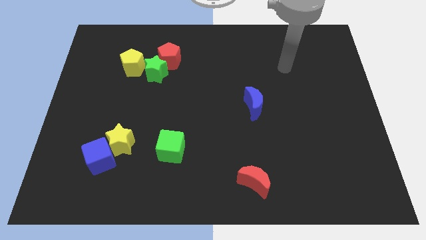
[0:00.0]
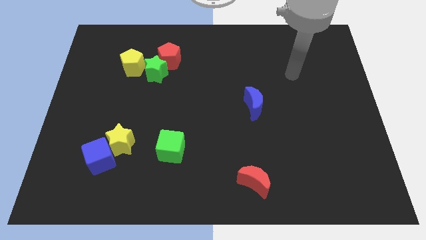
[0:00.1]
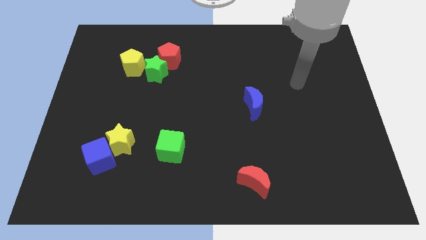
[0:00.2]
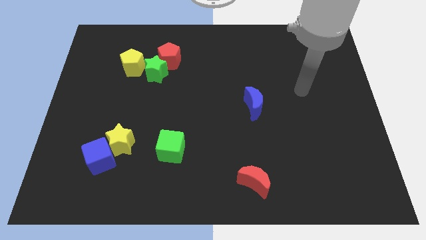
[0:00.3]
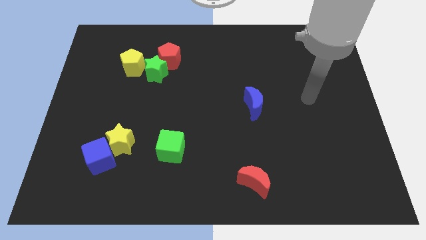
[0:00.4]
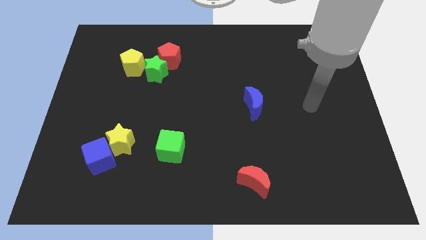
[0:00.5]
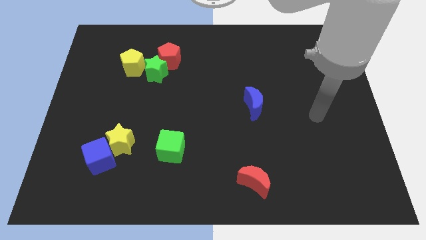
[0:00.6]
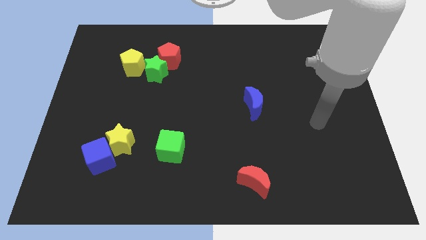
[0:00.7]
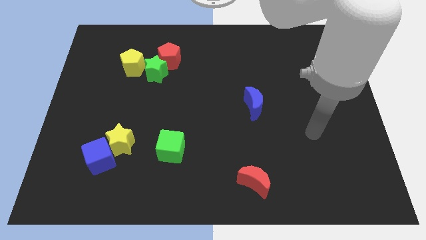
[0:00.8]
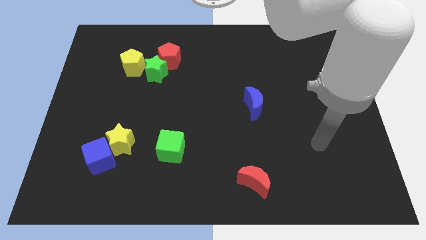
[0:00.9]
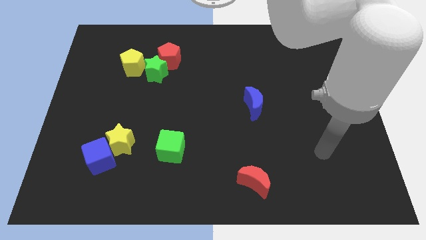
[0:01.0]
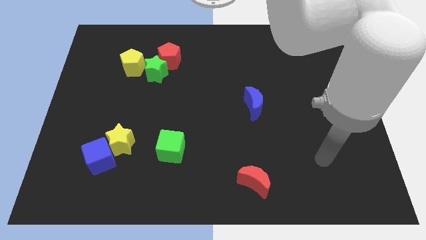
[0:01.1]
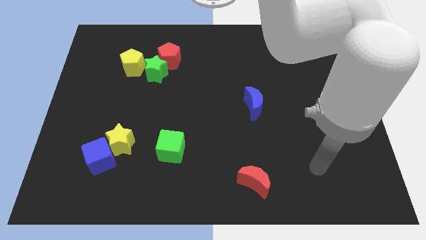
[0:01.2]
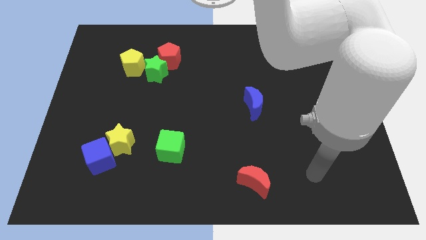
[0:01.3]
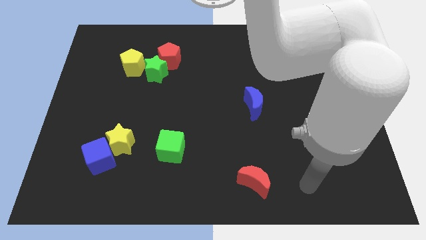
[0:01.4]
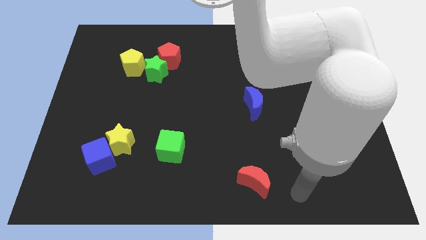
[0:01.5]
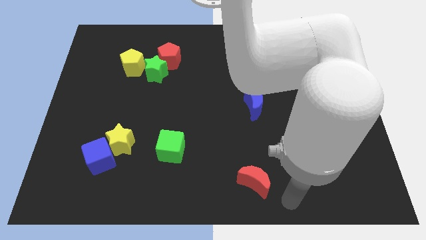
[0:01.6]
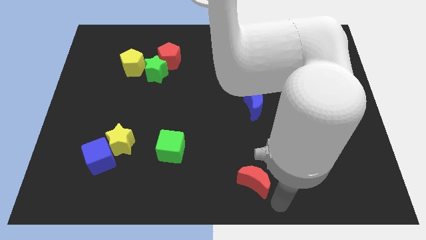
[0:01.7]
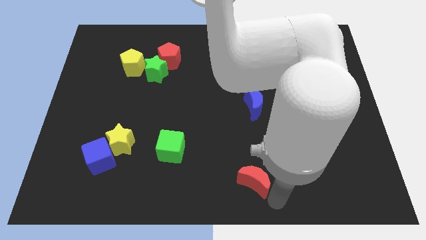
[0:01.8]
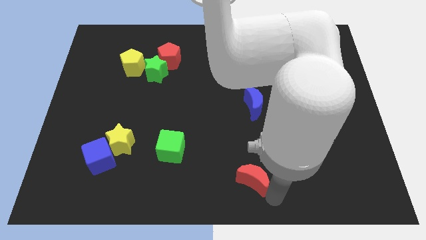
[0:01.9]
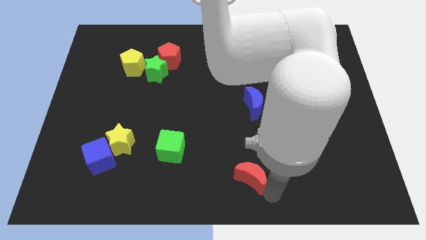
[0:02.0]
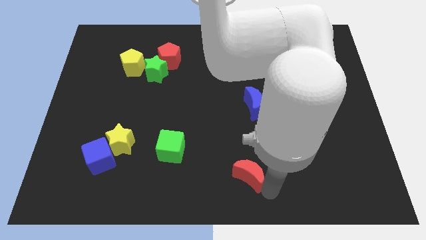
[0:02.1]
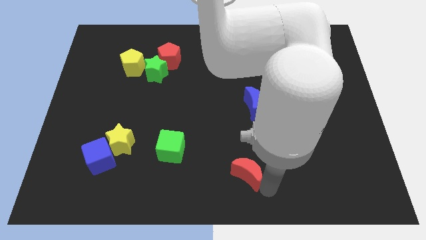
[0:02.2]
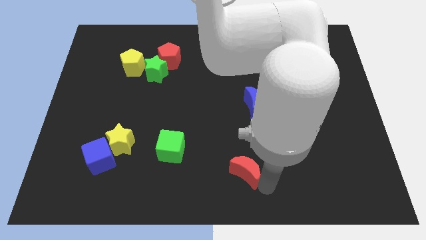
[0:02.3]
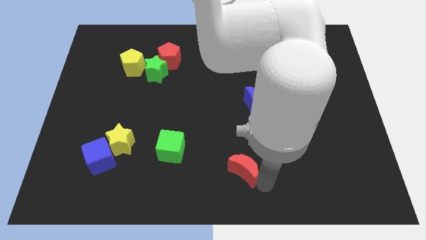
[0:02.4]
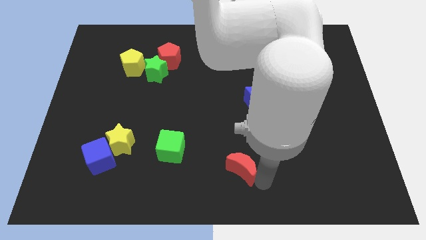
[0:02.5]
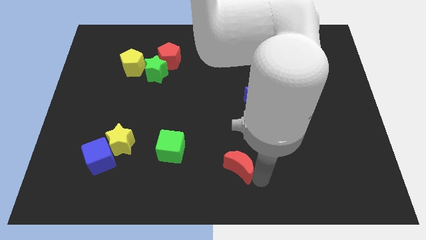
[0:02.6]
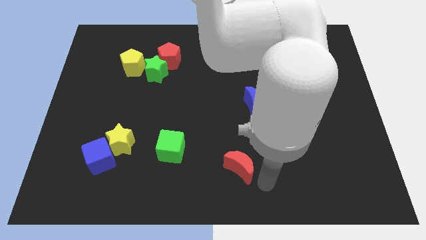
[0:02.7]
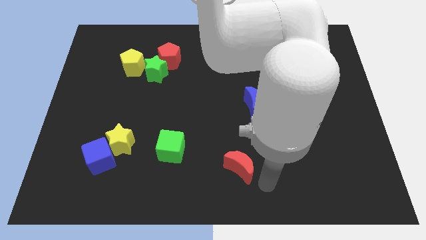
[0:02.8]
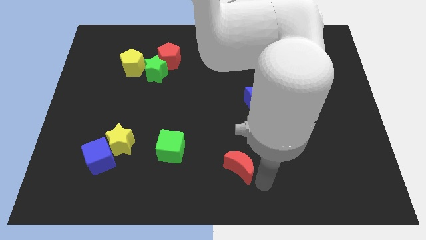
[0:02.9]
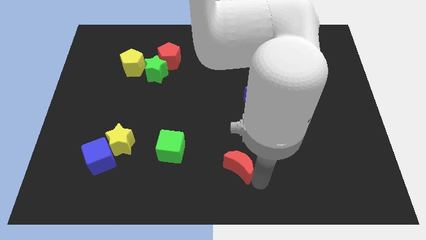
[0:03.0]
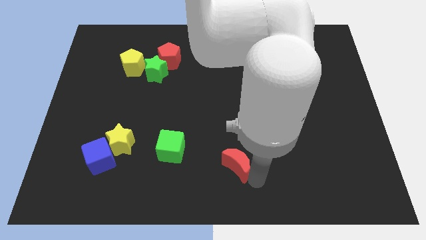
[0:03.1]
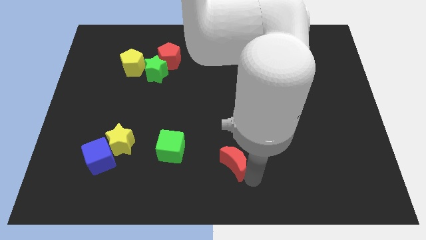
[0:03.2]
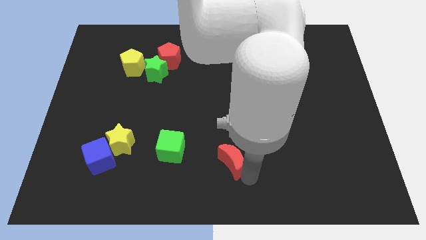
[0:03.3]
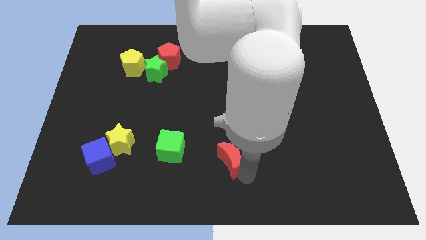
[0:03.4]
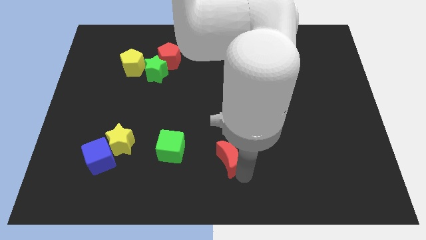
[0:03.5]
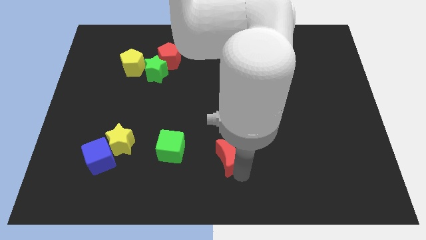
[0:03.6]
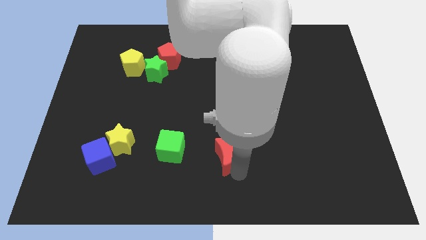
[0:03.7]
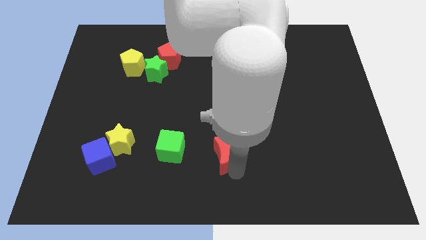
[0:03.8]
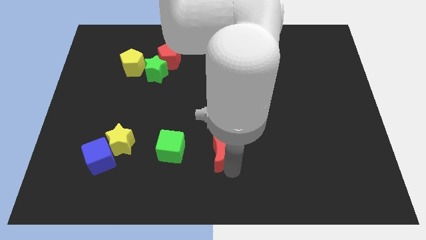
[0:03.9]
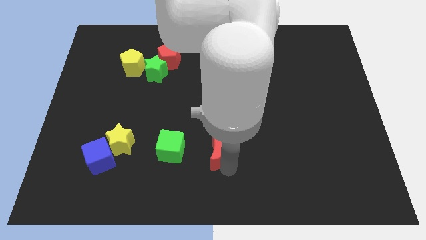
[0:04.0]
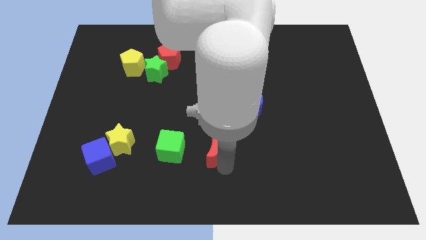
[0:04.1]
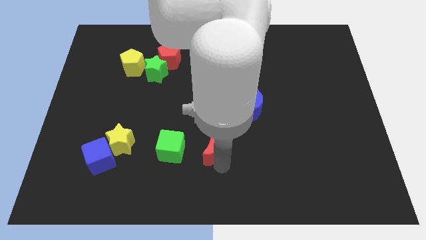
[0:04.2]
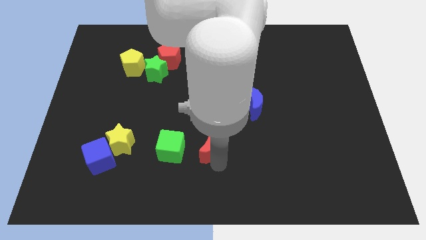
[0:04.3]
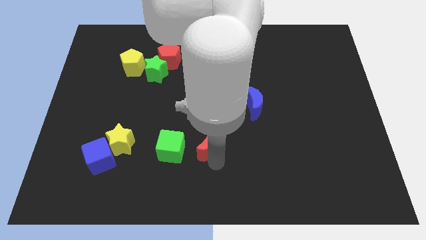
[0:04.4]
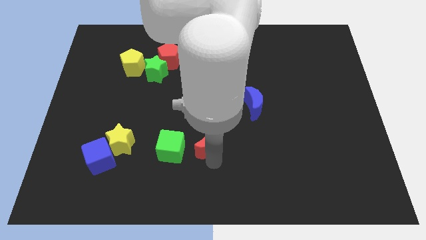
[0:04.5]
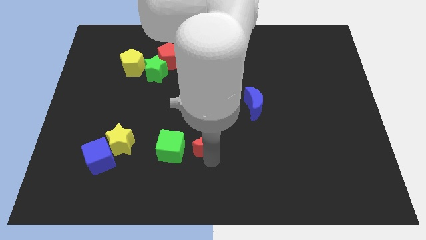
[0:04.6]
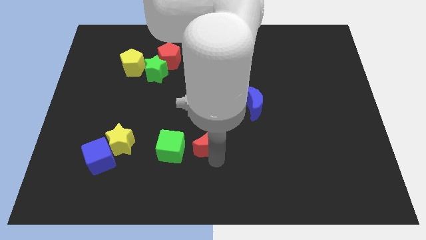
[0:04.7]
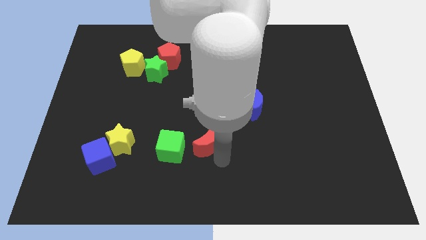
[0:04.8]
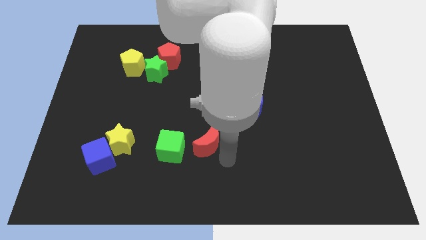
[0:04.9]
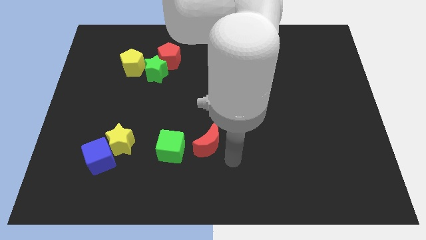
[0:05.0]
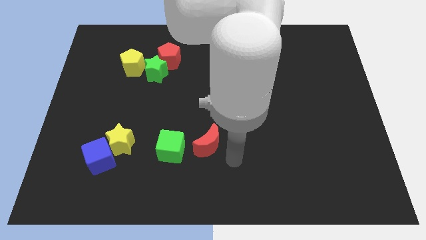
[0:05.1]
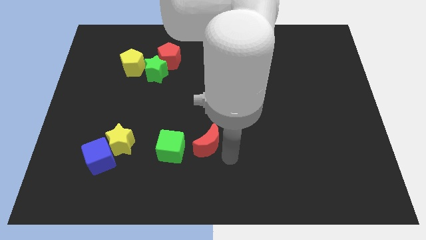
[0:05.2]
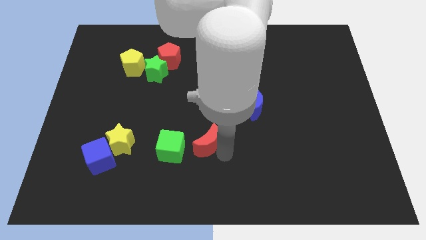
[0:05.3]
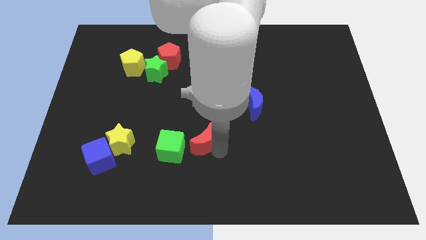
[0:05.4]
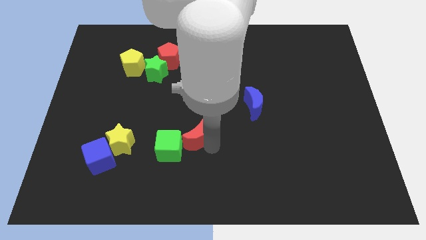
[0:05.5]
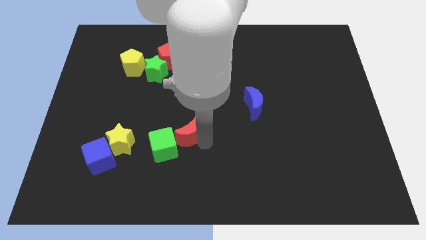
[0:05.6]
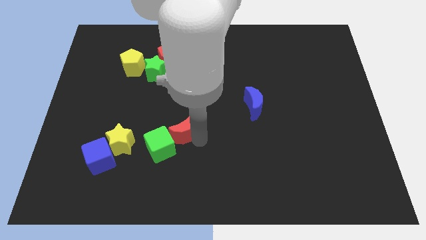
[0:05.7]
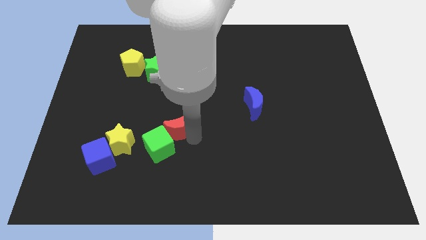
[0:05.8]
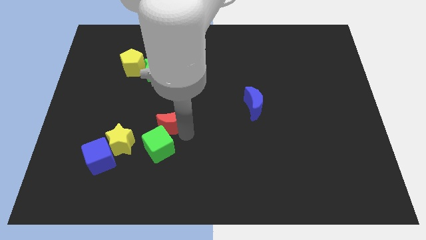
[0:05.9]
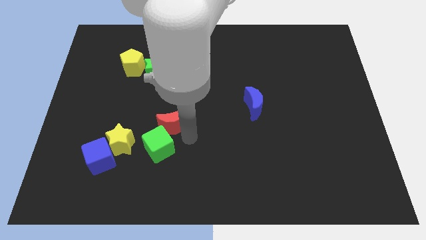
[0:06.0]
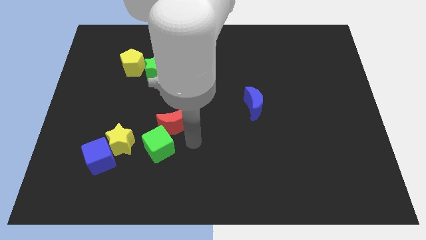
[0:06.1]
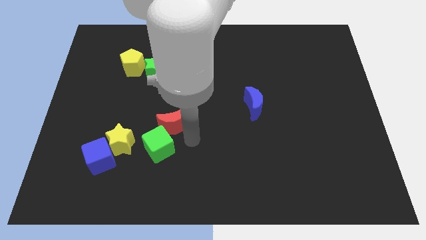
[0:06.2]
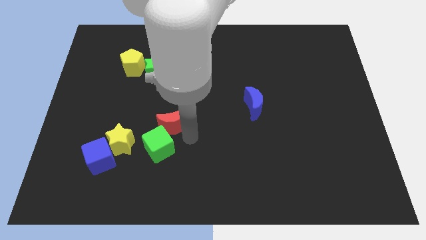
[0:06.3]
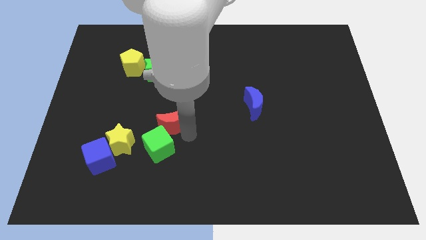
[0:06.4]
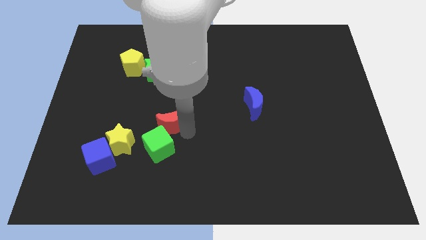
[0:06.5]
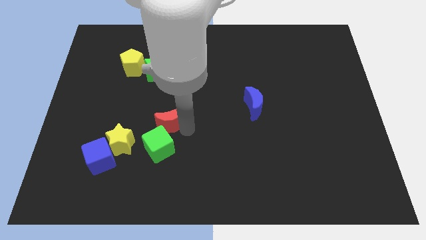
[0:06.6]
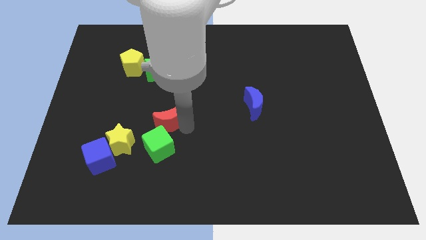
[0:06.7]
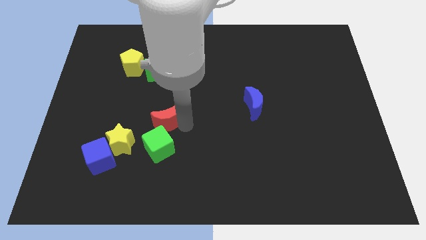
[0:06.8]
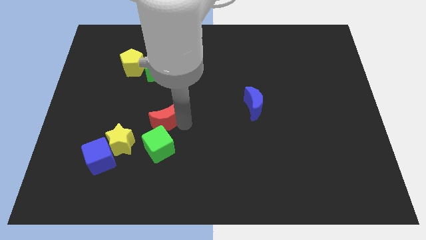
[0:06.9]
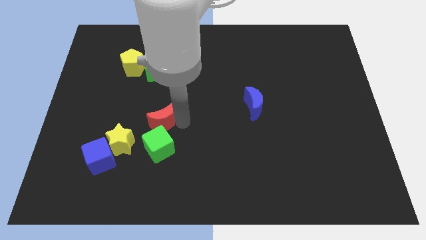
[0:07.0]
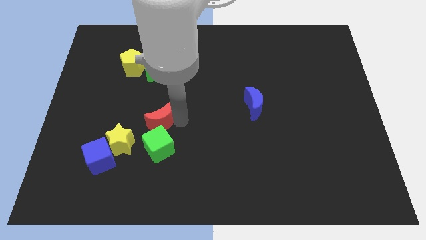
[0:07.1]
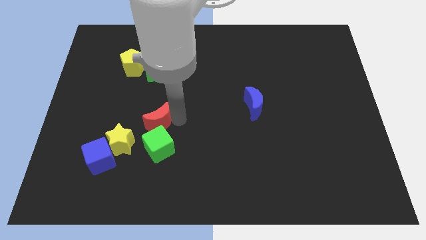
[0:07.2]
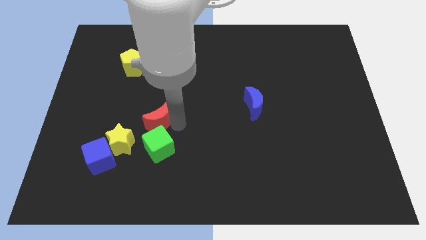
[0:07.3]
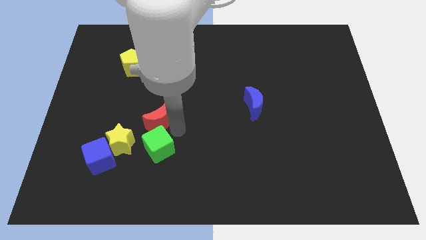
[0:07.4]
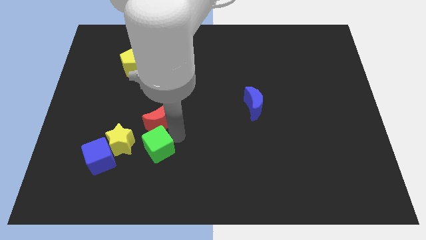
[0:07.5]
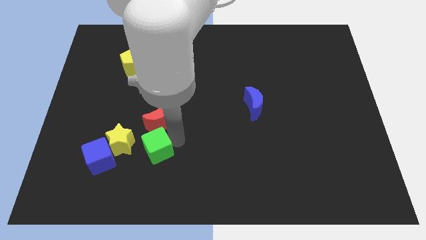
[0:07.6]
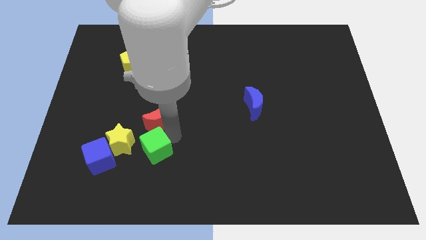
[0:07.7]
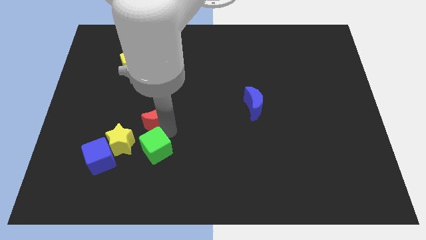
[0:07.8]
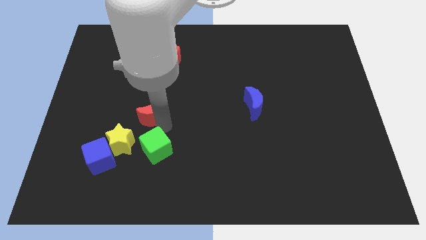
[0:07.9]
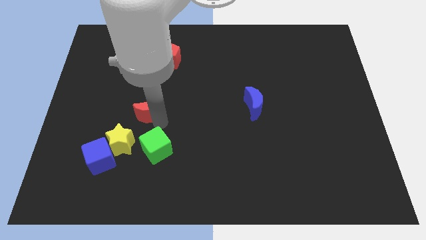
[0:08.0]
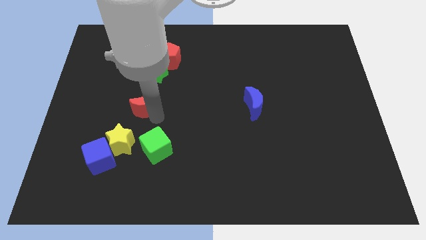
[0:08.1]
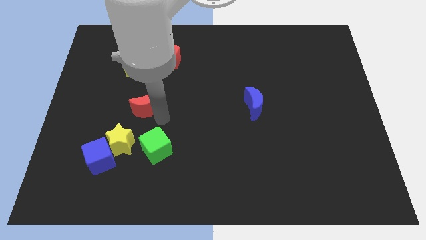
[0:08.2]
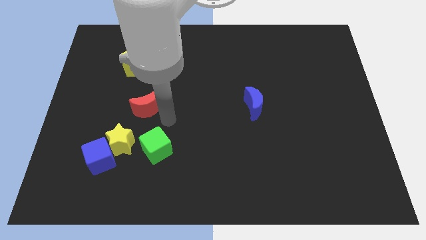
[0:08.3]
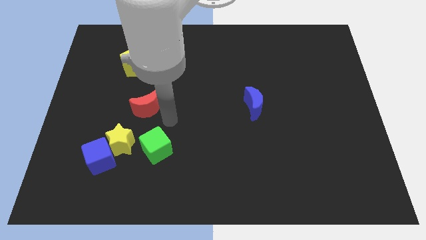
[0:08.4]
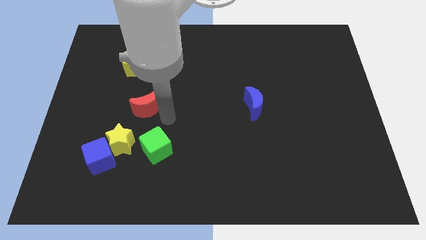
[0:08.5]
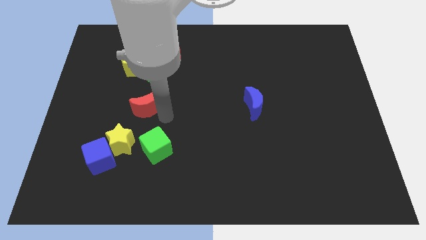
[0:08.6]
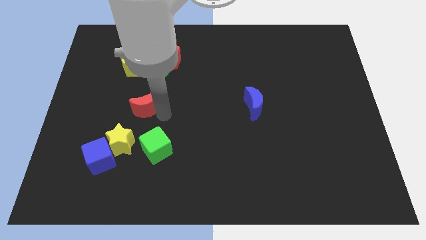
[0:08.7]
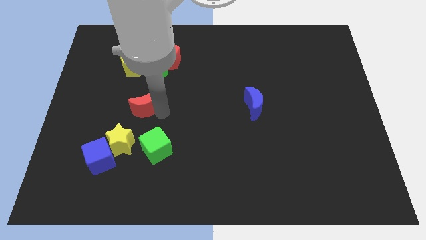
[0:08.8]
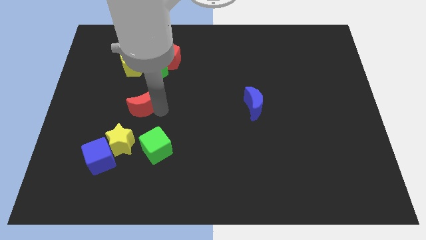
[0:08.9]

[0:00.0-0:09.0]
push the red moon to the bottom side of the yellow pentagon
